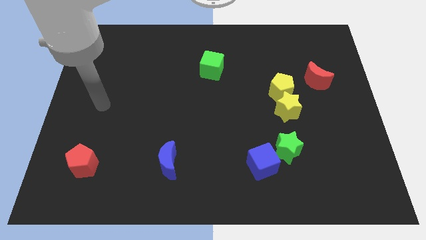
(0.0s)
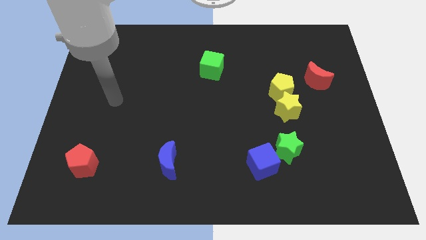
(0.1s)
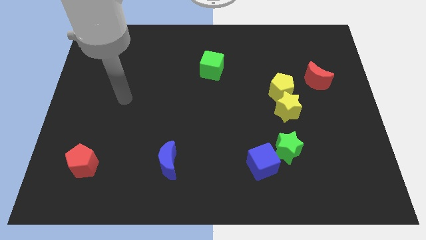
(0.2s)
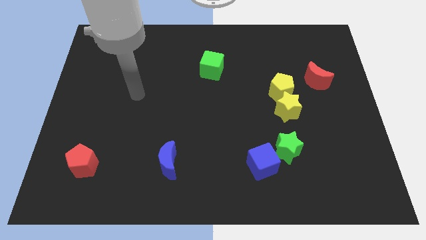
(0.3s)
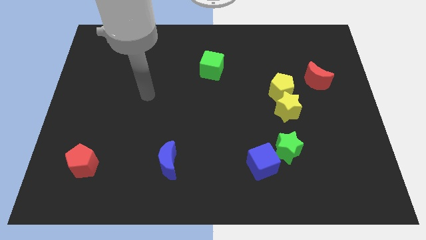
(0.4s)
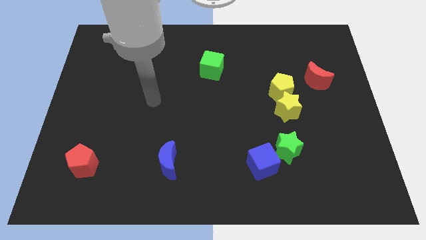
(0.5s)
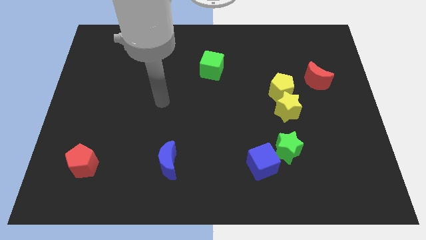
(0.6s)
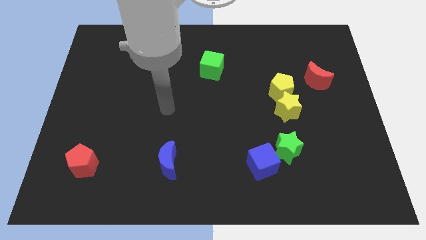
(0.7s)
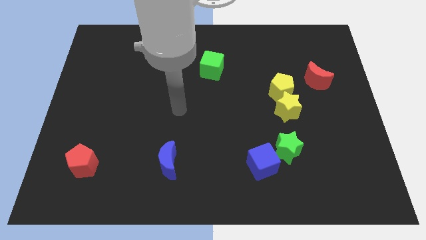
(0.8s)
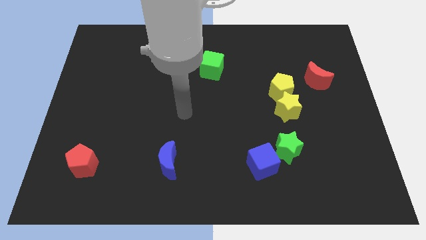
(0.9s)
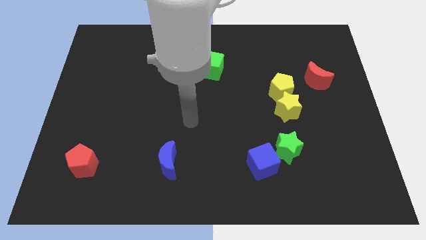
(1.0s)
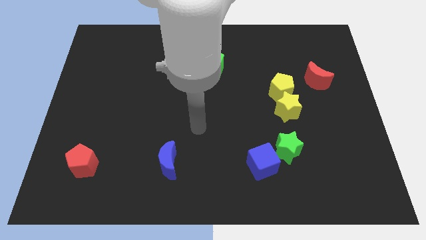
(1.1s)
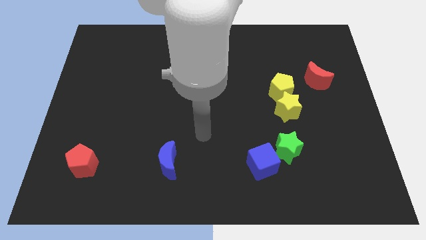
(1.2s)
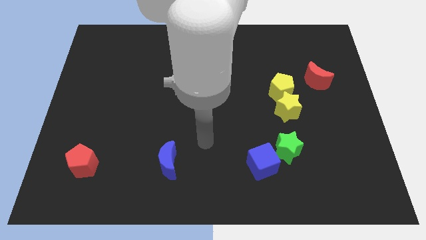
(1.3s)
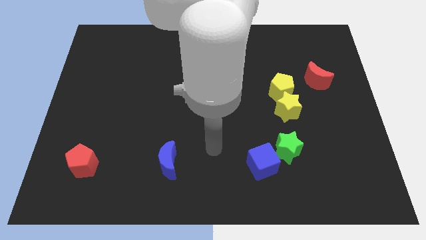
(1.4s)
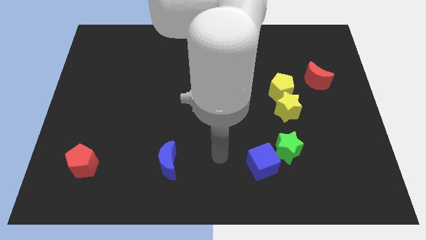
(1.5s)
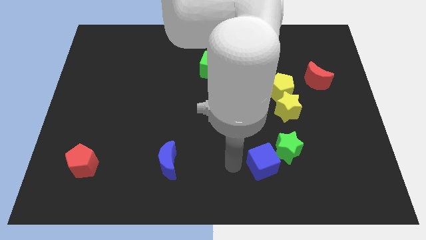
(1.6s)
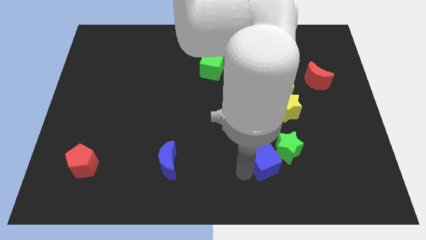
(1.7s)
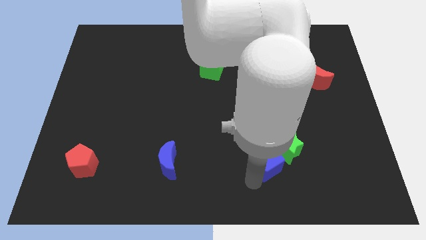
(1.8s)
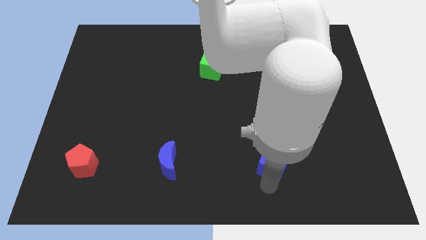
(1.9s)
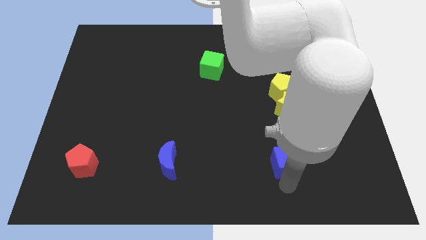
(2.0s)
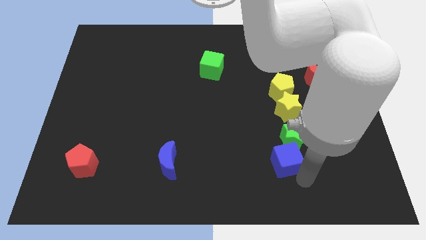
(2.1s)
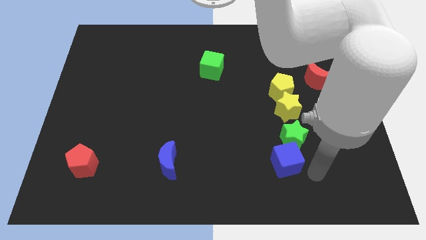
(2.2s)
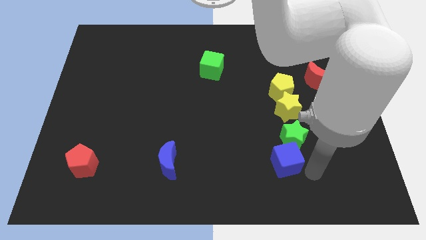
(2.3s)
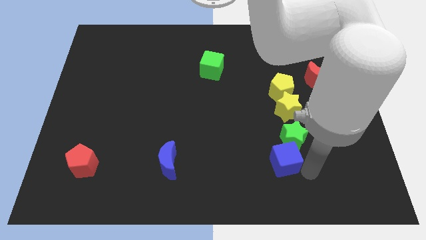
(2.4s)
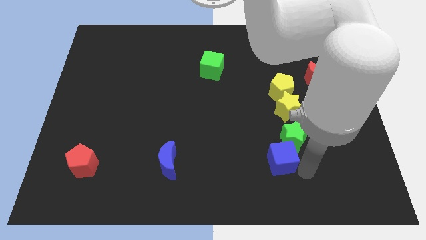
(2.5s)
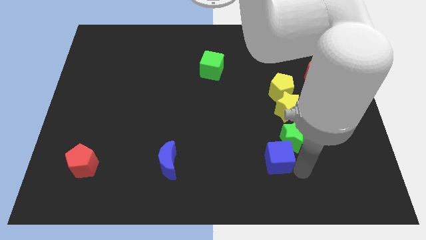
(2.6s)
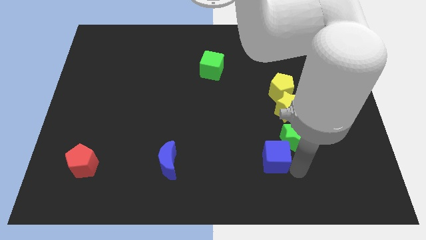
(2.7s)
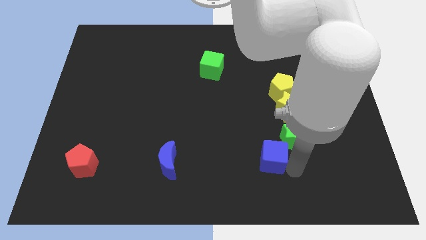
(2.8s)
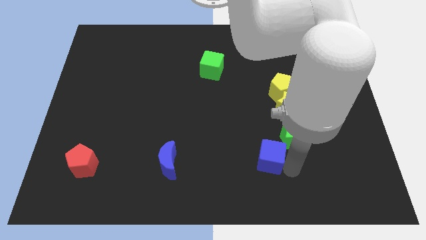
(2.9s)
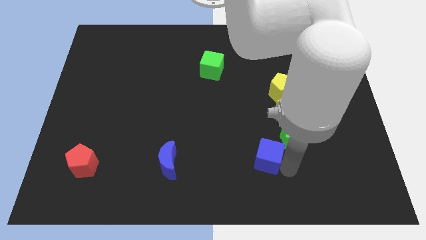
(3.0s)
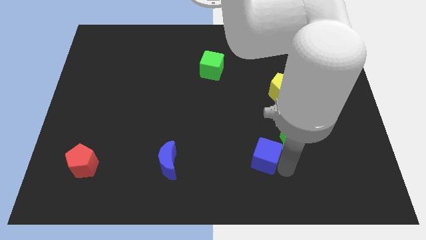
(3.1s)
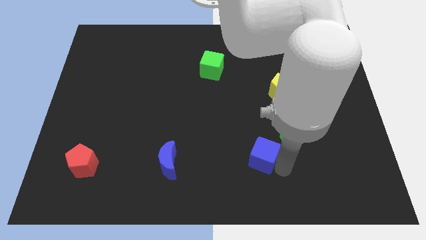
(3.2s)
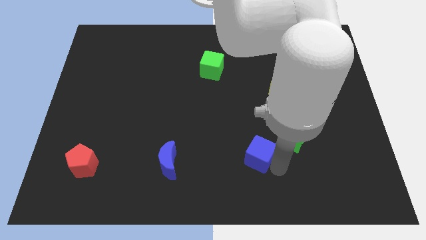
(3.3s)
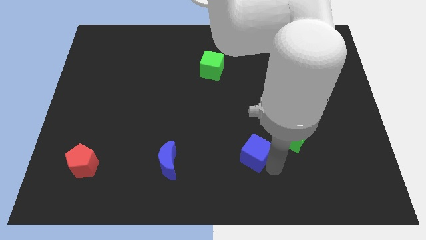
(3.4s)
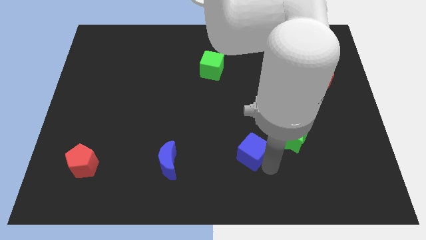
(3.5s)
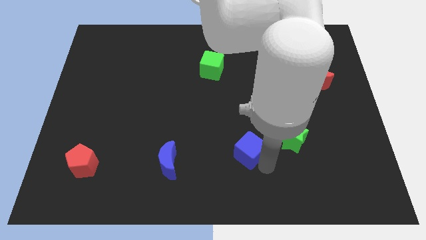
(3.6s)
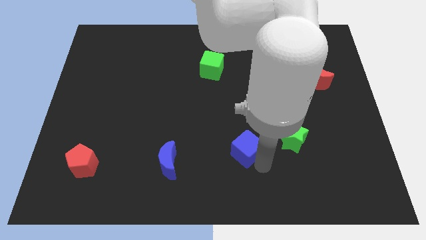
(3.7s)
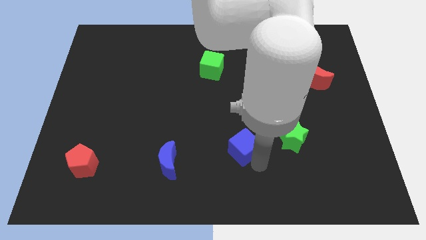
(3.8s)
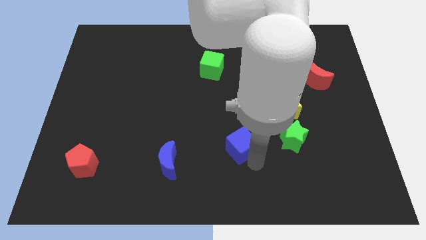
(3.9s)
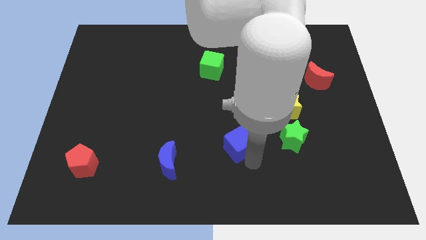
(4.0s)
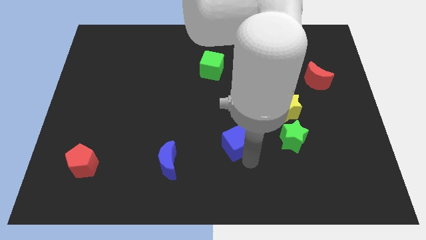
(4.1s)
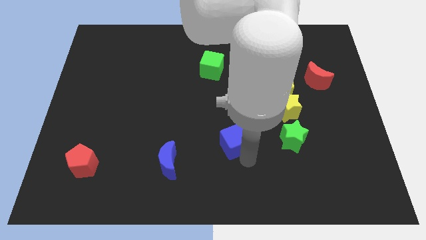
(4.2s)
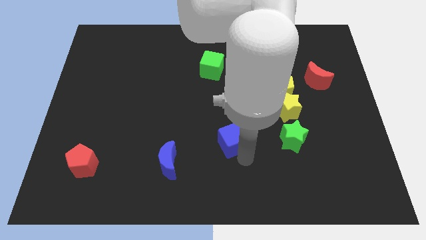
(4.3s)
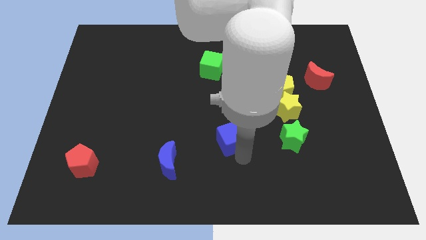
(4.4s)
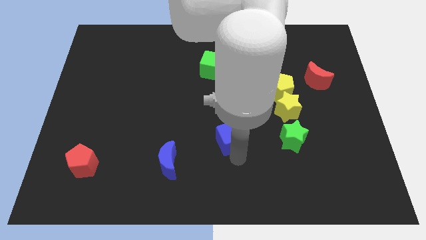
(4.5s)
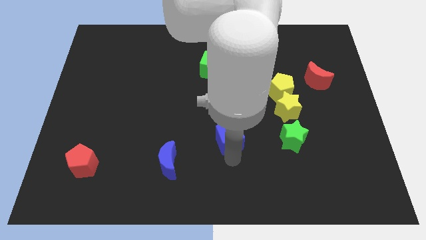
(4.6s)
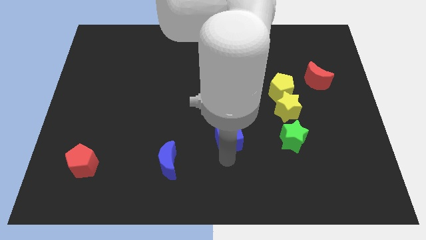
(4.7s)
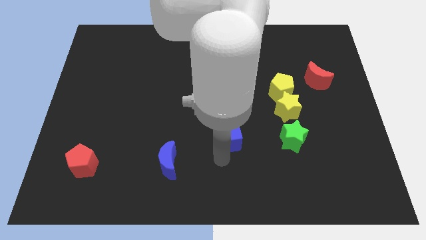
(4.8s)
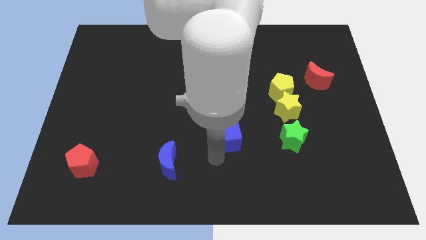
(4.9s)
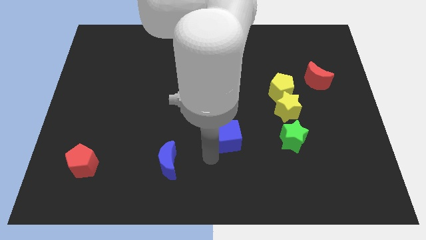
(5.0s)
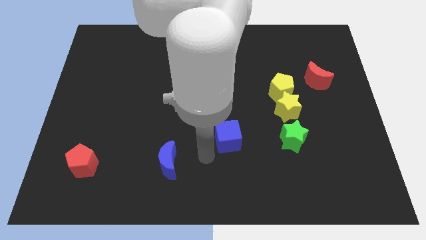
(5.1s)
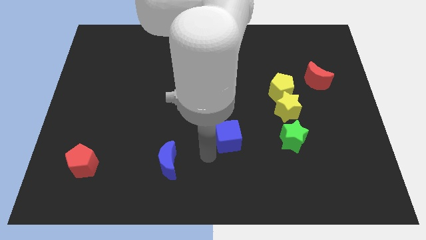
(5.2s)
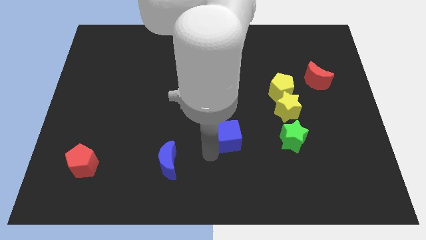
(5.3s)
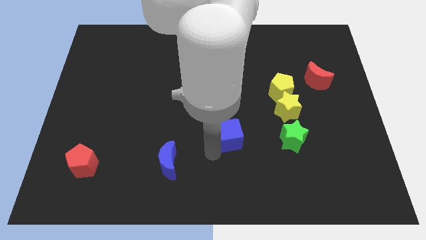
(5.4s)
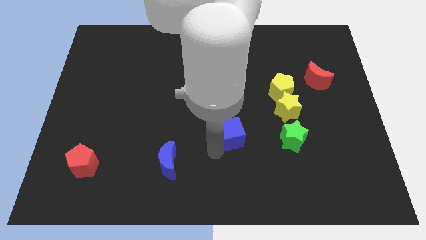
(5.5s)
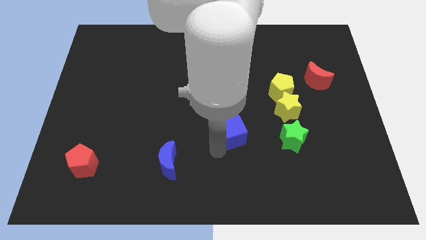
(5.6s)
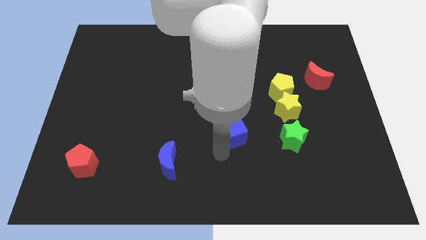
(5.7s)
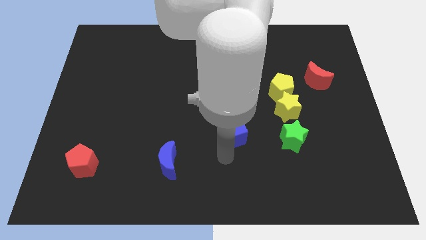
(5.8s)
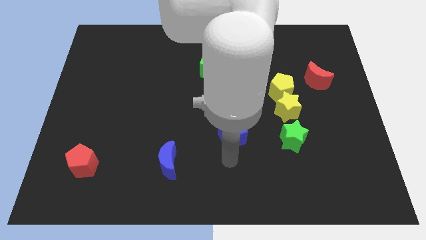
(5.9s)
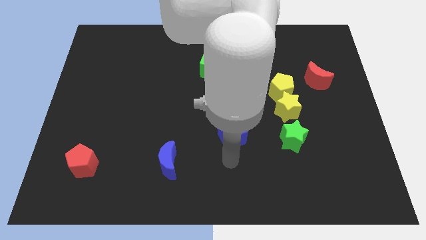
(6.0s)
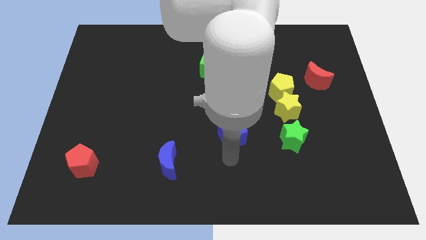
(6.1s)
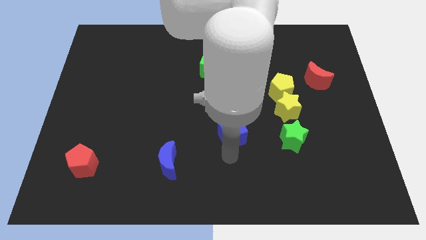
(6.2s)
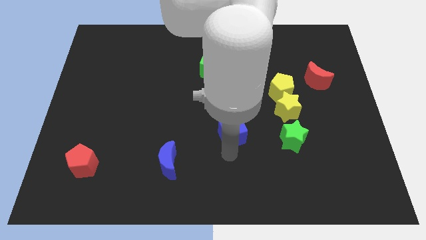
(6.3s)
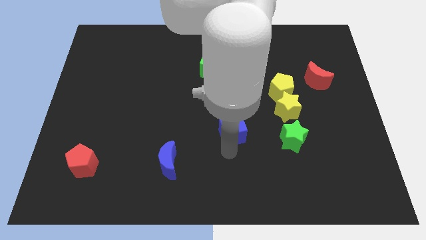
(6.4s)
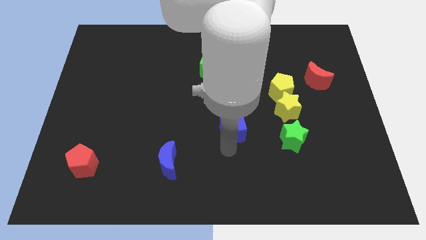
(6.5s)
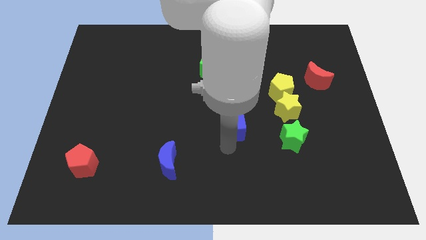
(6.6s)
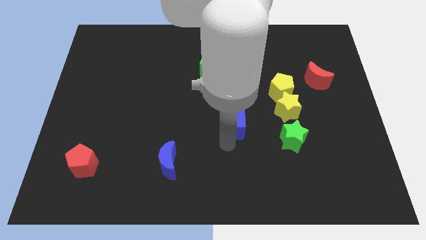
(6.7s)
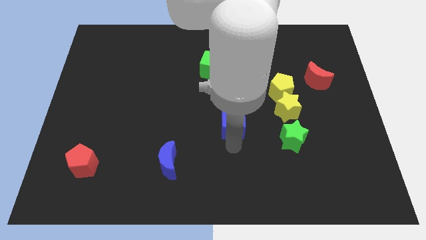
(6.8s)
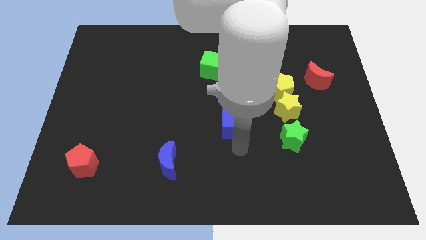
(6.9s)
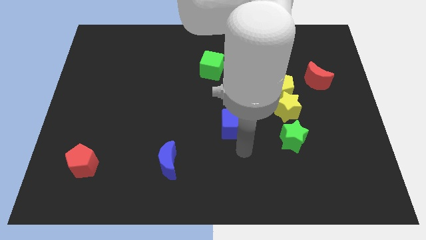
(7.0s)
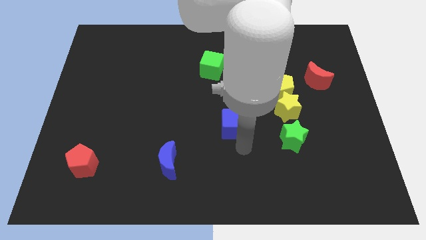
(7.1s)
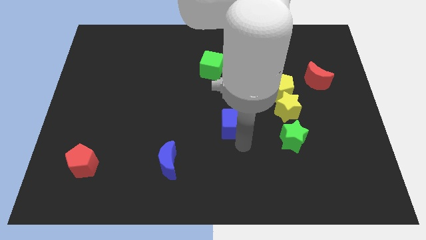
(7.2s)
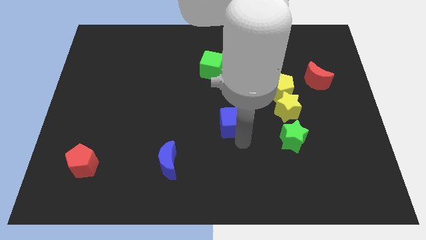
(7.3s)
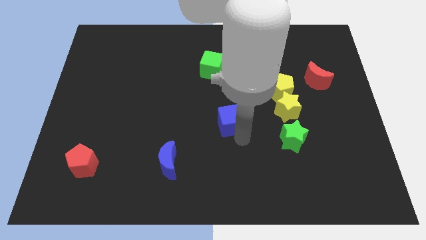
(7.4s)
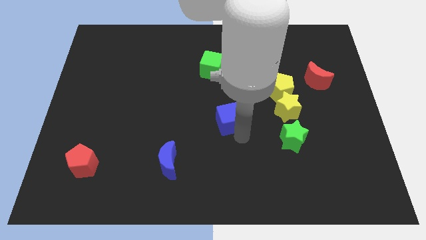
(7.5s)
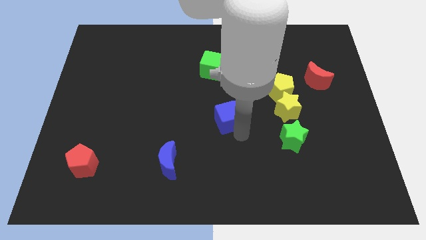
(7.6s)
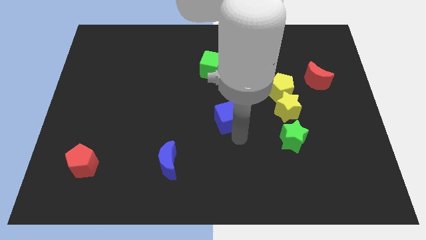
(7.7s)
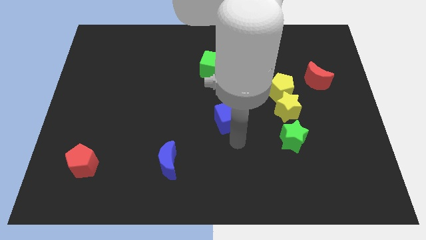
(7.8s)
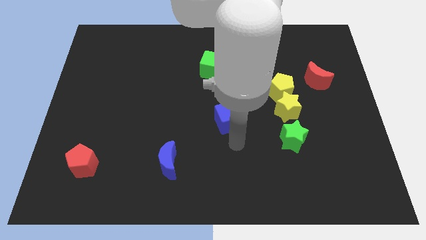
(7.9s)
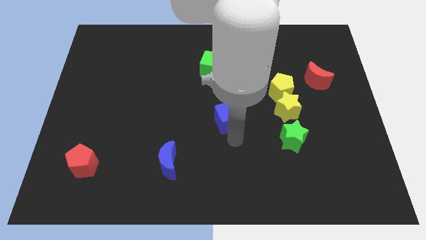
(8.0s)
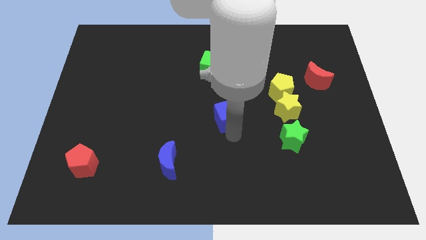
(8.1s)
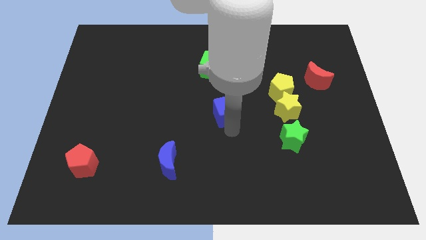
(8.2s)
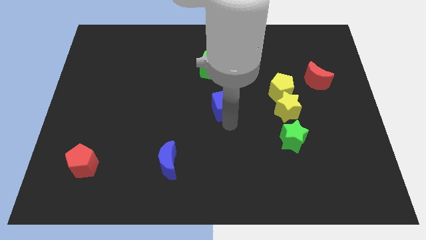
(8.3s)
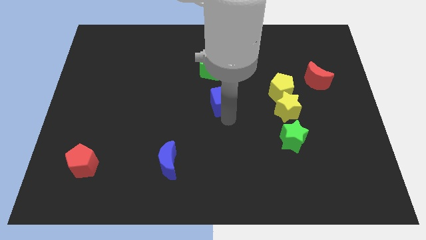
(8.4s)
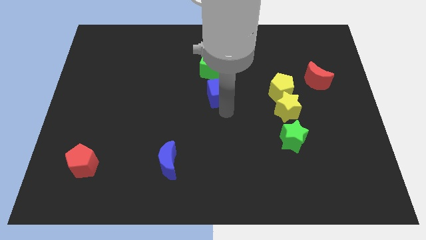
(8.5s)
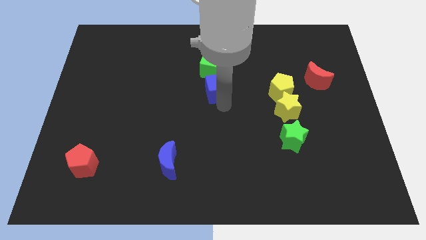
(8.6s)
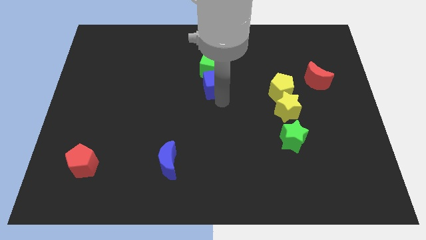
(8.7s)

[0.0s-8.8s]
slide the blue cube next to the green cube
